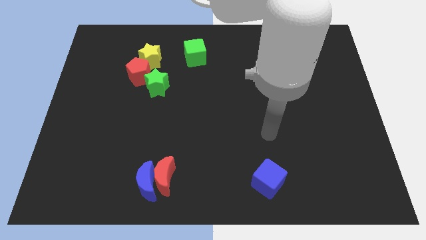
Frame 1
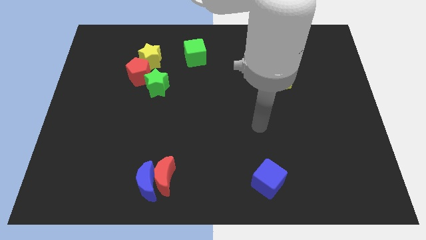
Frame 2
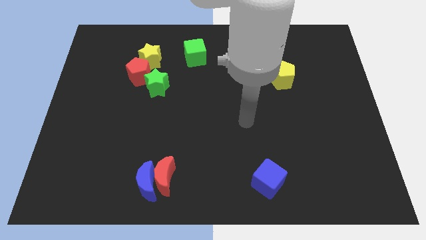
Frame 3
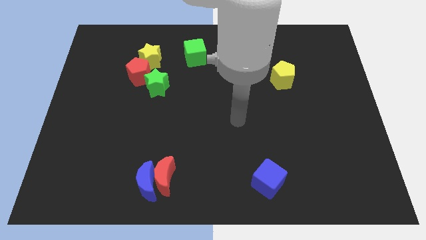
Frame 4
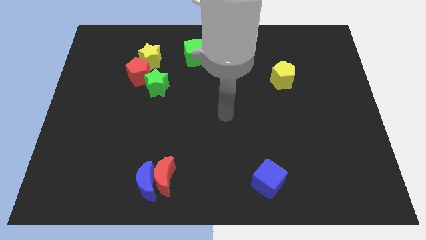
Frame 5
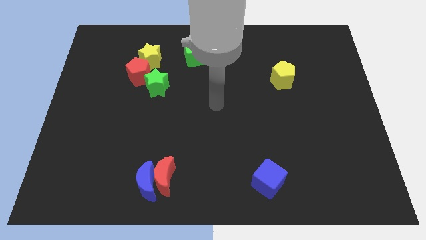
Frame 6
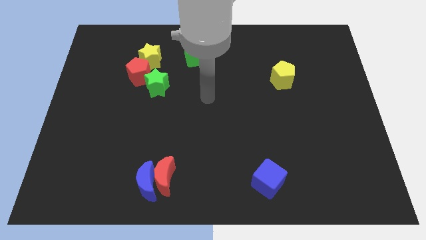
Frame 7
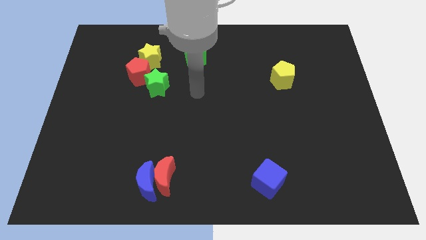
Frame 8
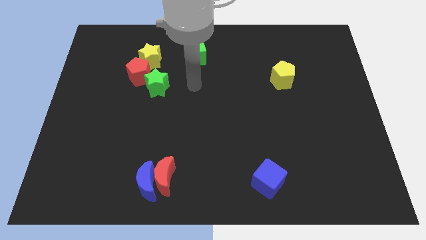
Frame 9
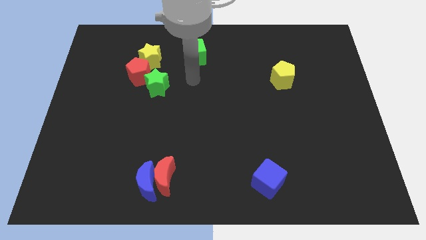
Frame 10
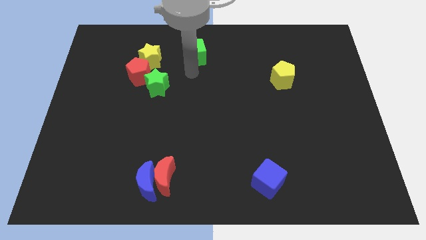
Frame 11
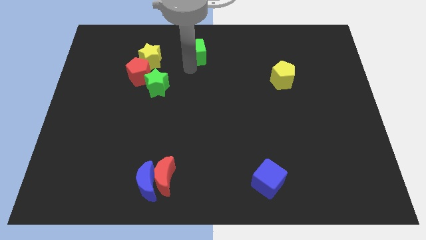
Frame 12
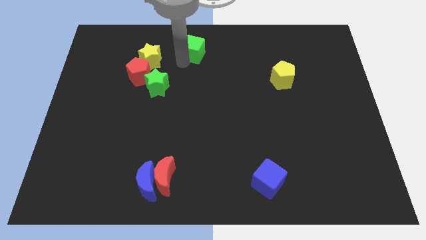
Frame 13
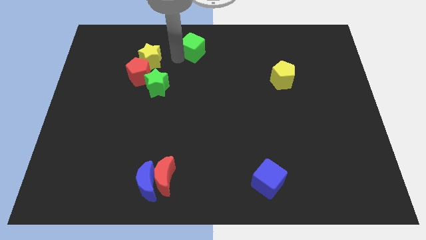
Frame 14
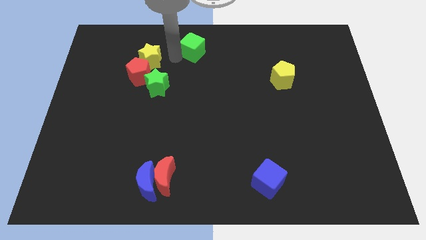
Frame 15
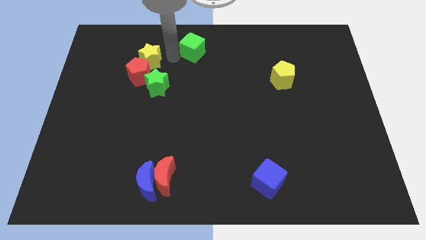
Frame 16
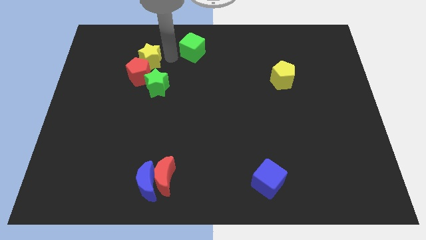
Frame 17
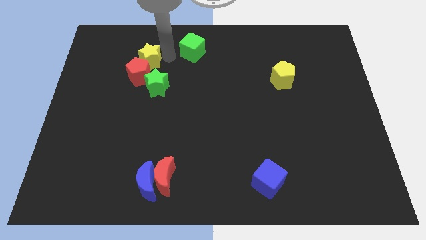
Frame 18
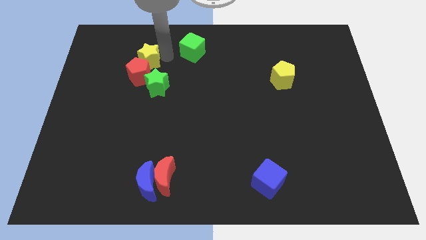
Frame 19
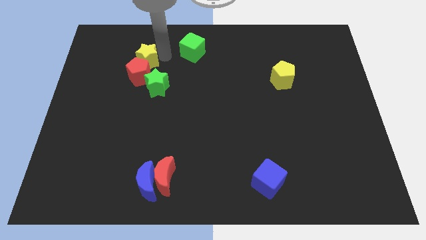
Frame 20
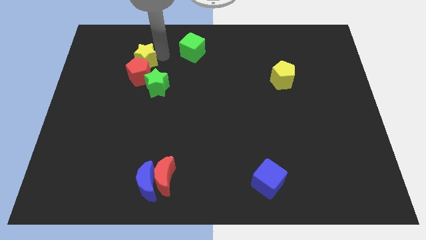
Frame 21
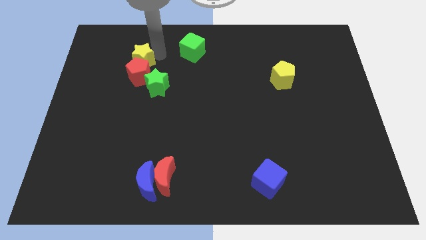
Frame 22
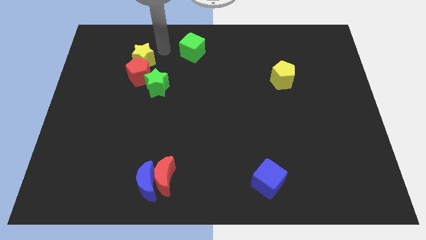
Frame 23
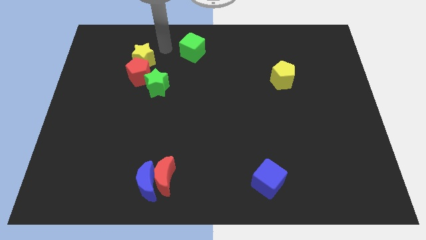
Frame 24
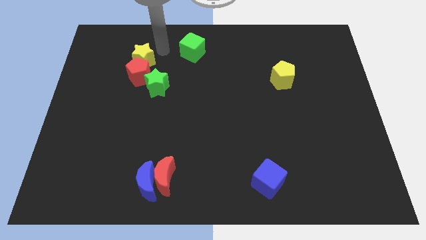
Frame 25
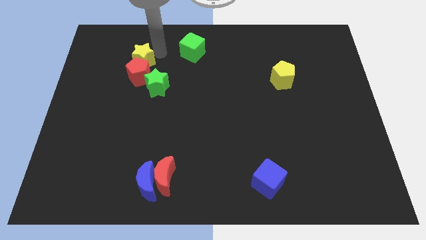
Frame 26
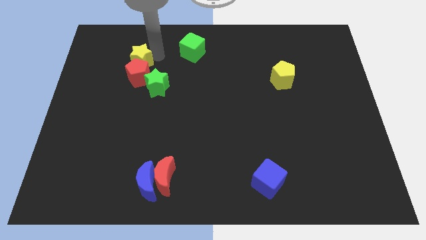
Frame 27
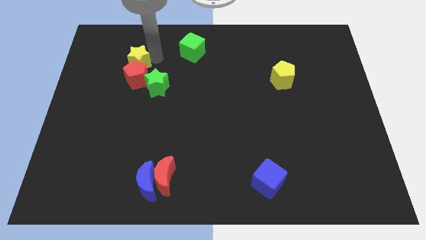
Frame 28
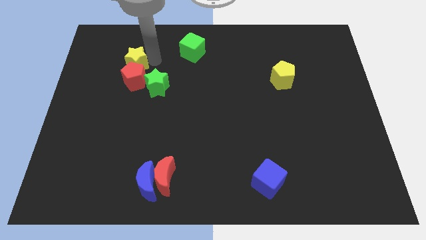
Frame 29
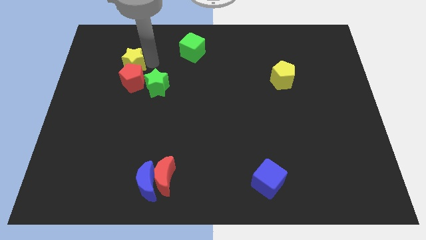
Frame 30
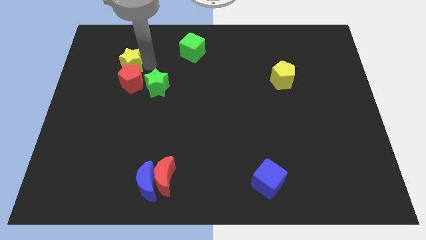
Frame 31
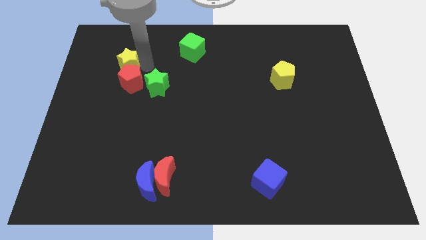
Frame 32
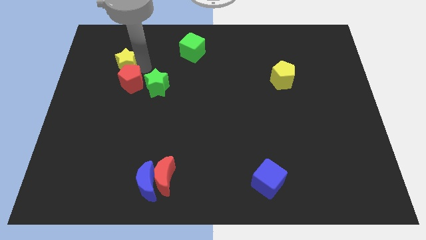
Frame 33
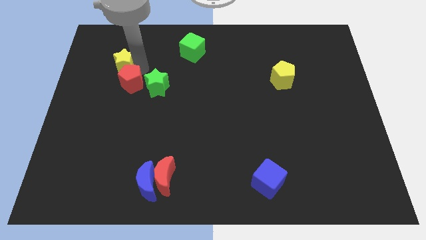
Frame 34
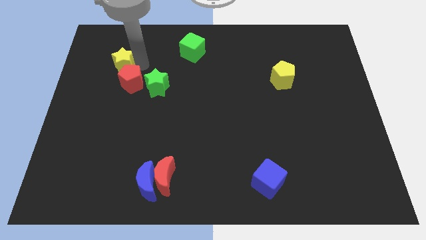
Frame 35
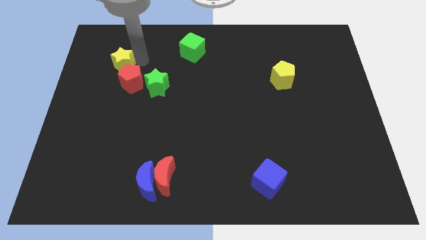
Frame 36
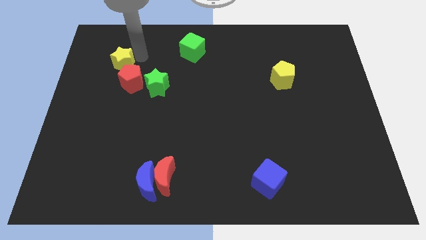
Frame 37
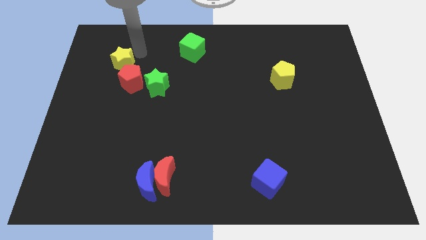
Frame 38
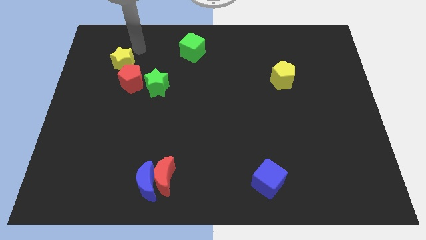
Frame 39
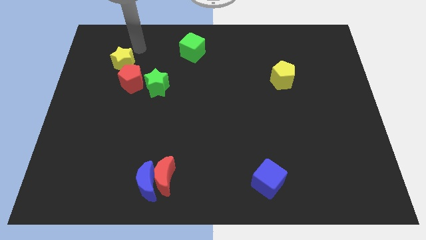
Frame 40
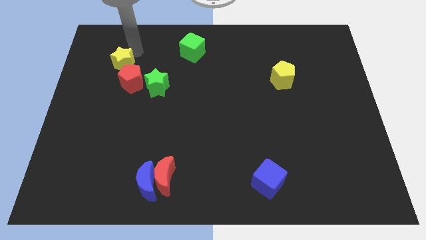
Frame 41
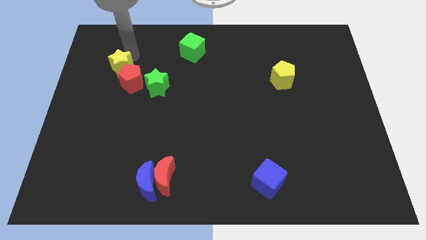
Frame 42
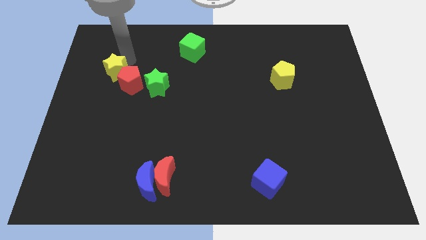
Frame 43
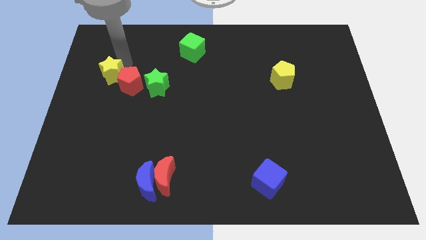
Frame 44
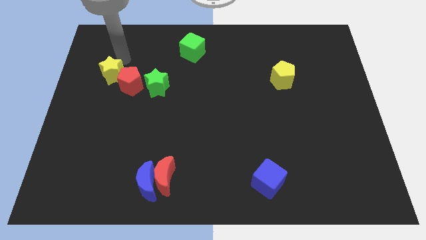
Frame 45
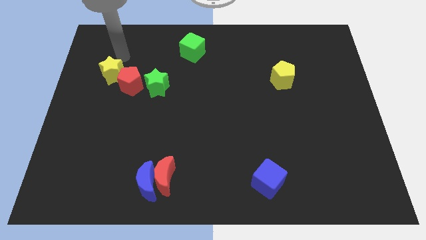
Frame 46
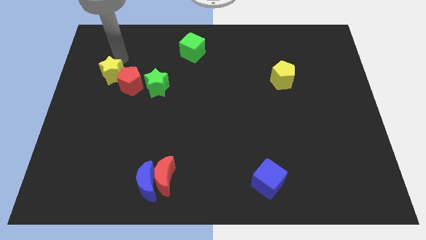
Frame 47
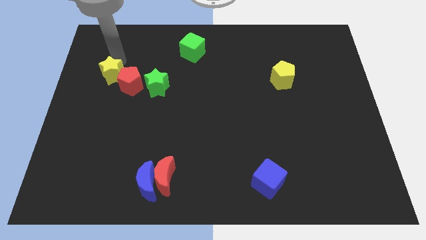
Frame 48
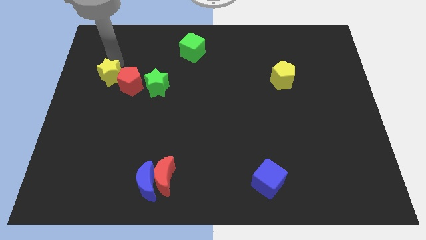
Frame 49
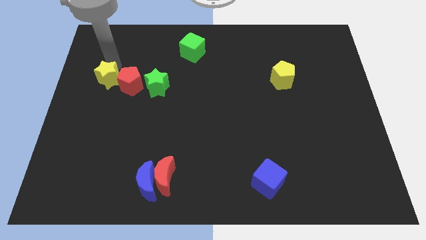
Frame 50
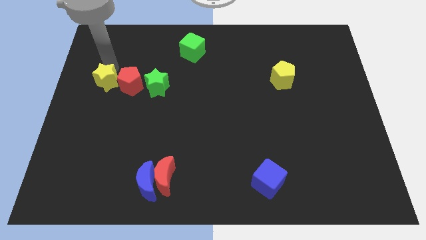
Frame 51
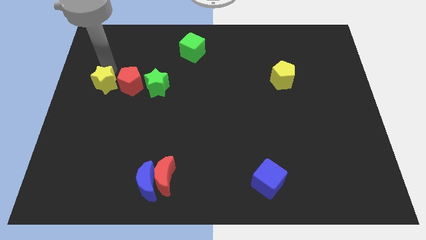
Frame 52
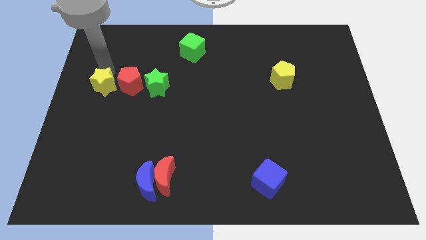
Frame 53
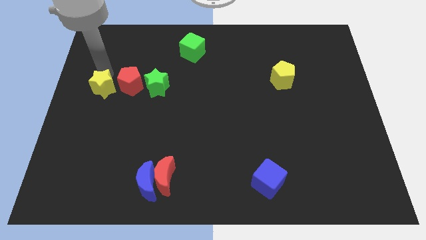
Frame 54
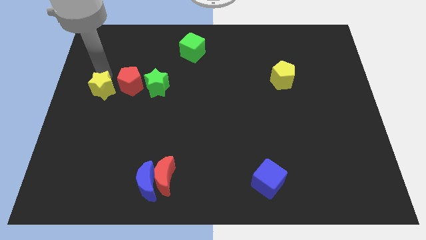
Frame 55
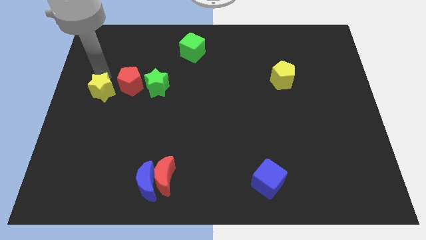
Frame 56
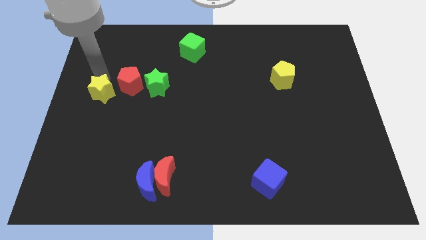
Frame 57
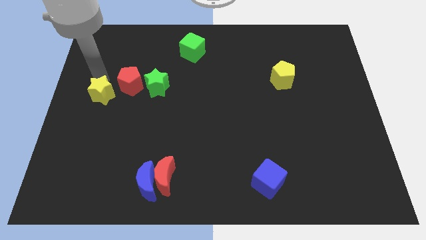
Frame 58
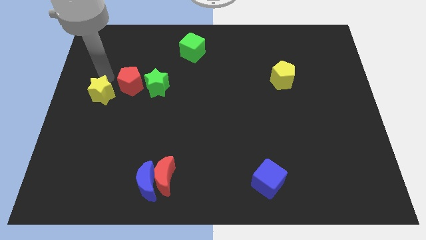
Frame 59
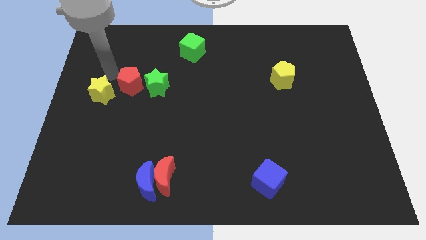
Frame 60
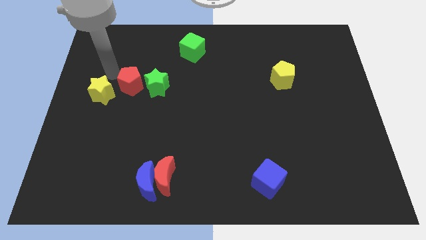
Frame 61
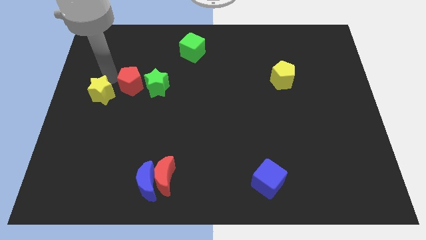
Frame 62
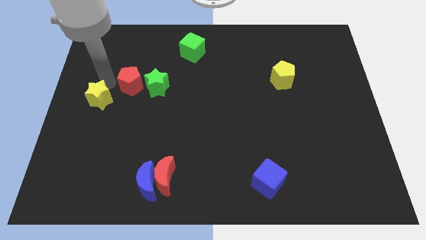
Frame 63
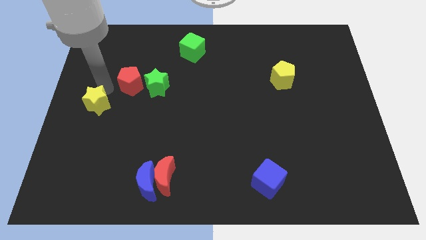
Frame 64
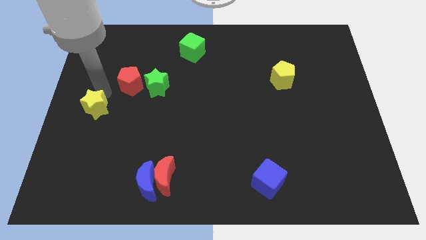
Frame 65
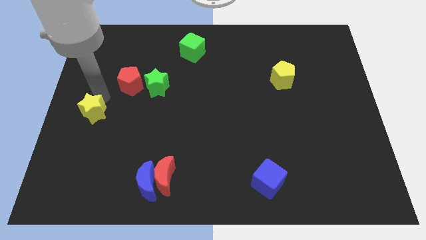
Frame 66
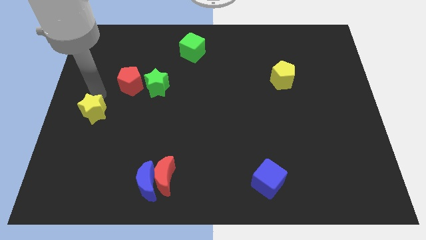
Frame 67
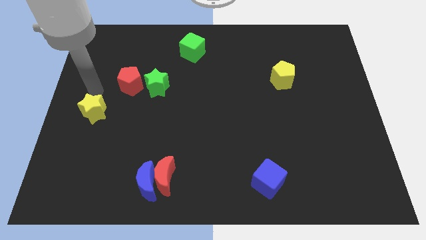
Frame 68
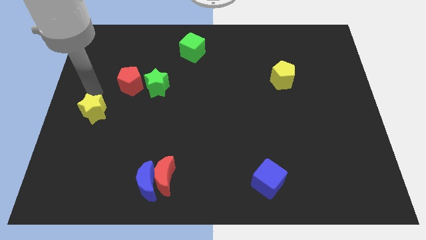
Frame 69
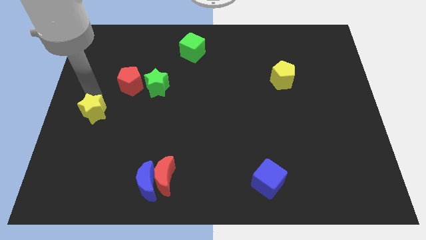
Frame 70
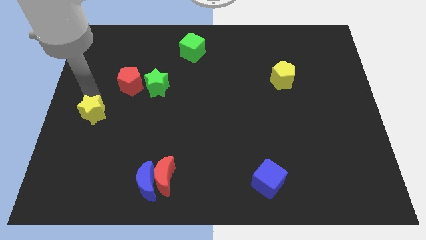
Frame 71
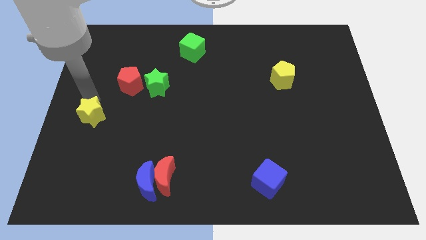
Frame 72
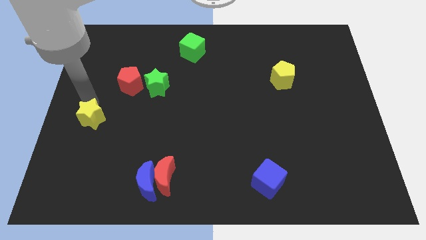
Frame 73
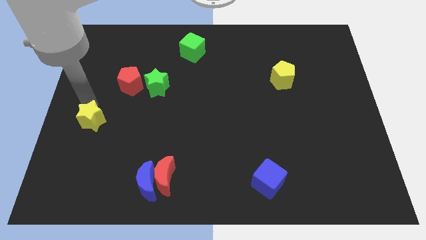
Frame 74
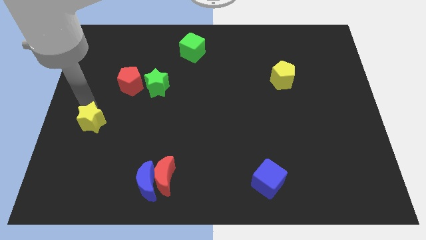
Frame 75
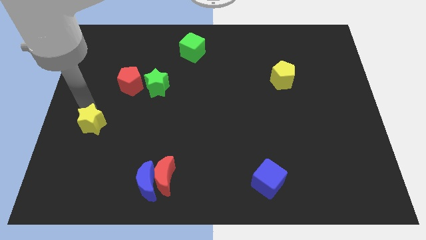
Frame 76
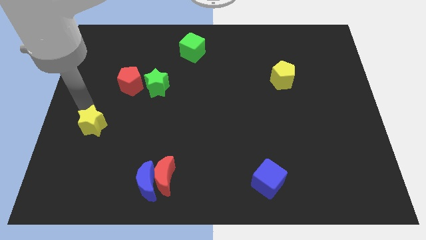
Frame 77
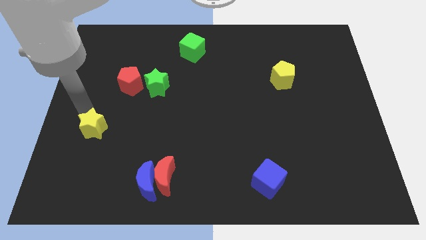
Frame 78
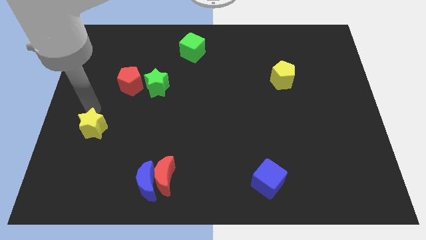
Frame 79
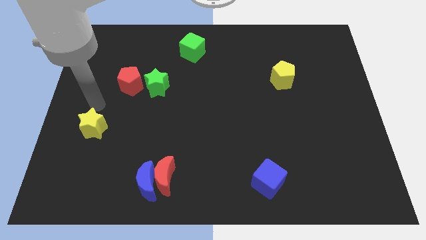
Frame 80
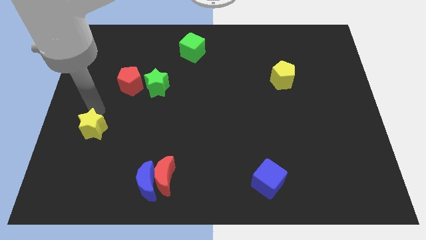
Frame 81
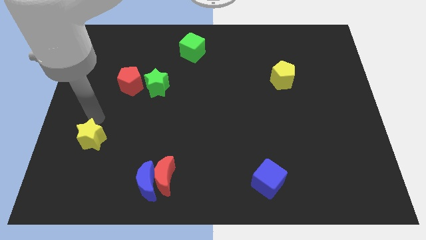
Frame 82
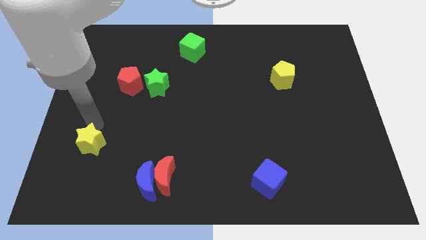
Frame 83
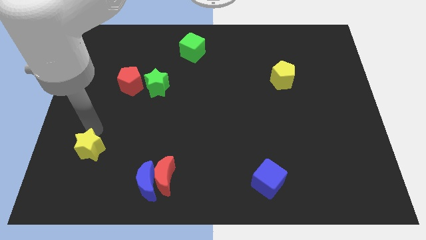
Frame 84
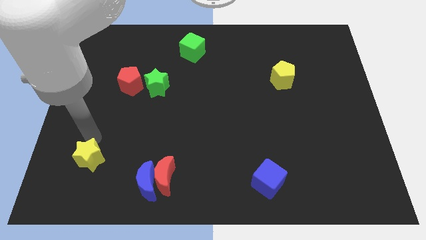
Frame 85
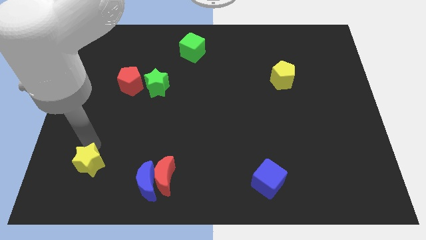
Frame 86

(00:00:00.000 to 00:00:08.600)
push the yellow star to the left side of the blue moon
